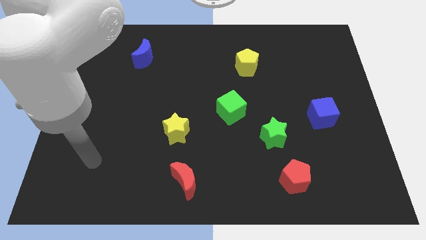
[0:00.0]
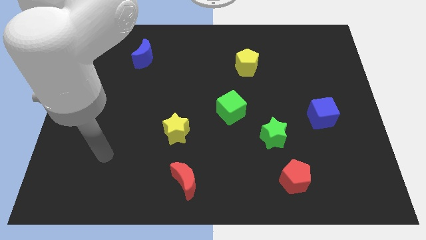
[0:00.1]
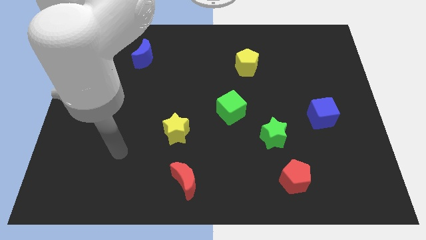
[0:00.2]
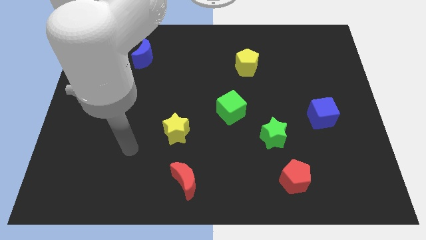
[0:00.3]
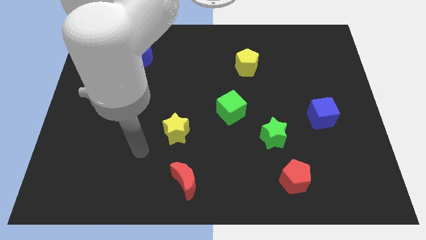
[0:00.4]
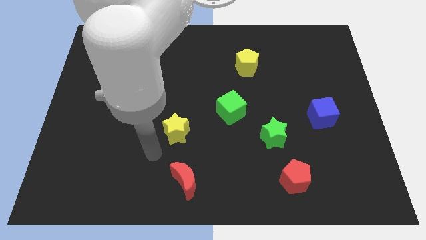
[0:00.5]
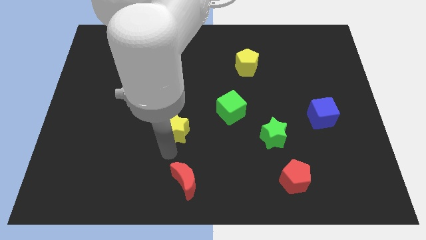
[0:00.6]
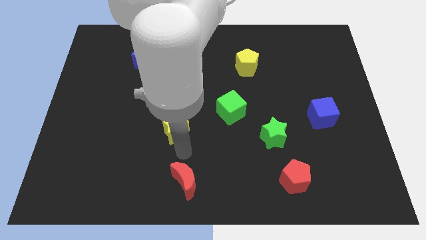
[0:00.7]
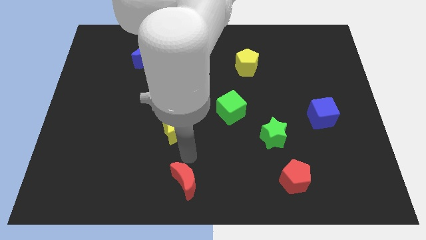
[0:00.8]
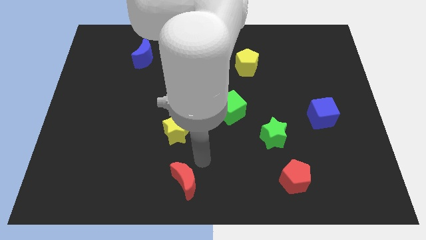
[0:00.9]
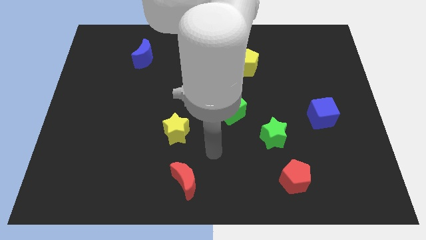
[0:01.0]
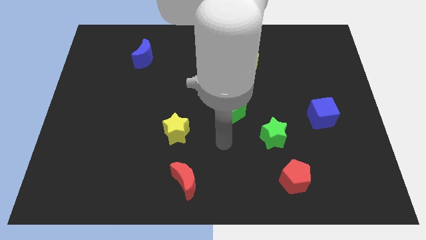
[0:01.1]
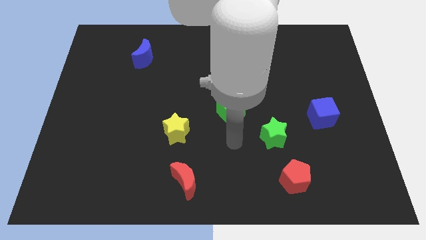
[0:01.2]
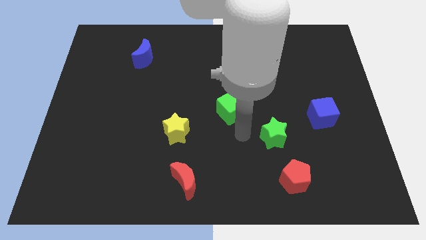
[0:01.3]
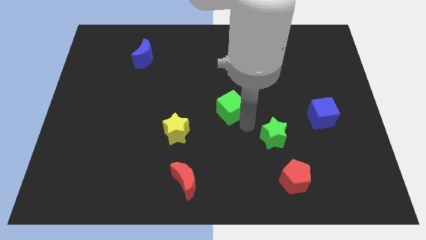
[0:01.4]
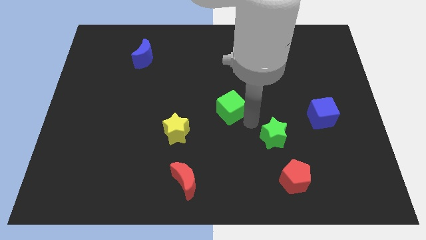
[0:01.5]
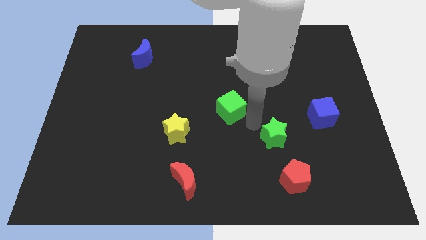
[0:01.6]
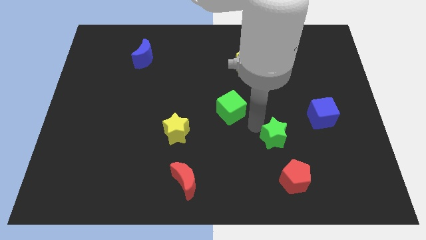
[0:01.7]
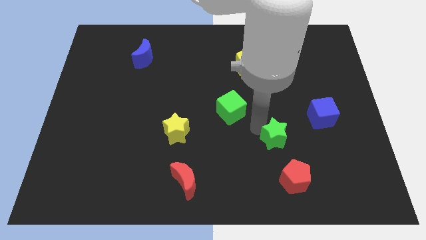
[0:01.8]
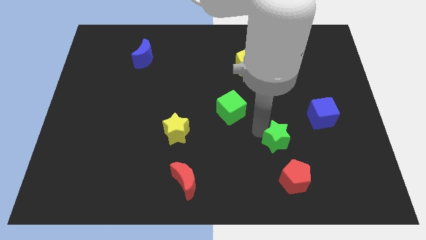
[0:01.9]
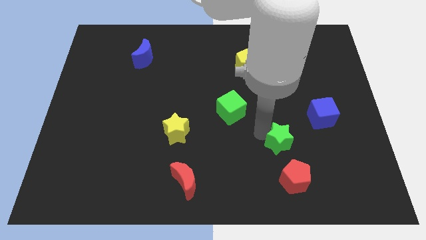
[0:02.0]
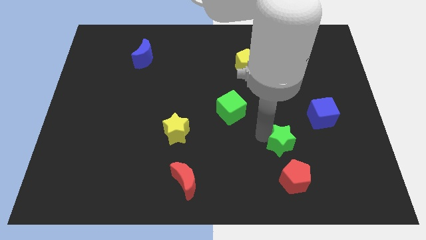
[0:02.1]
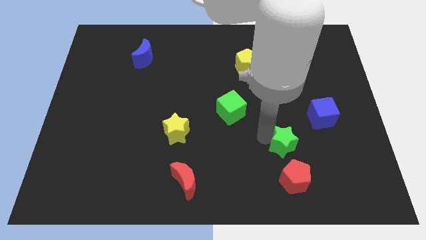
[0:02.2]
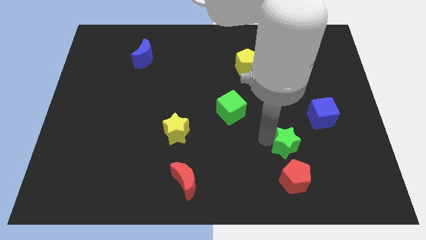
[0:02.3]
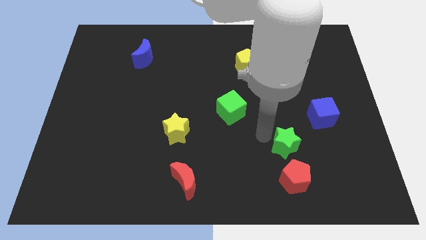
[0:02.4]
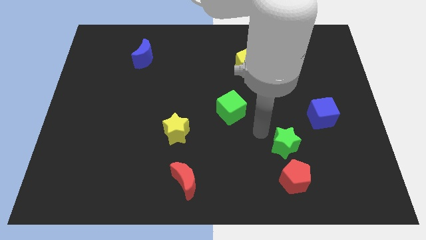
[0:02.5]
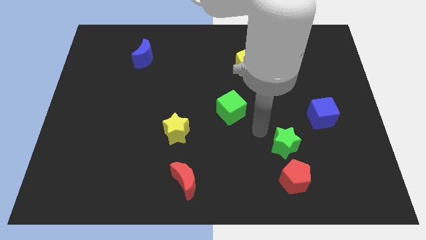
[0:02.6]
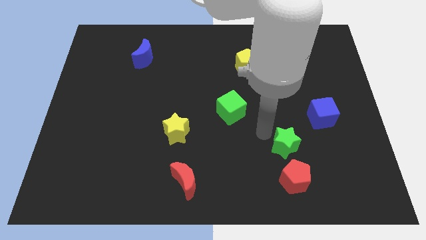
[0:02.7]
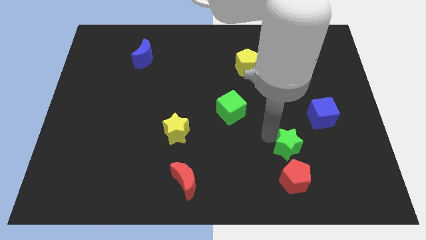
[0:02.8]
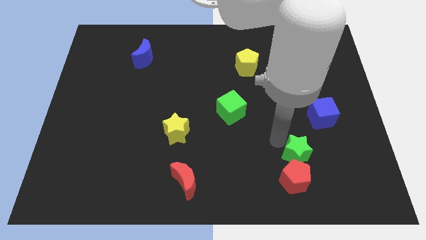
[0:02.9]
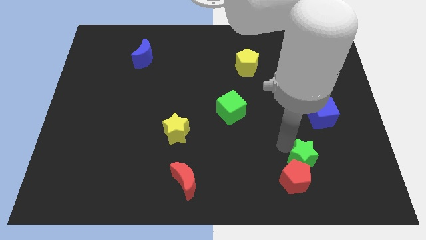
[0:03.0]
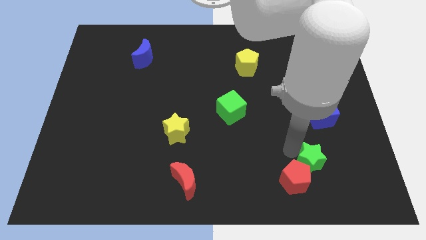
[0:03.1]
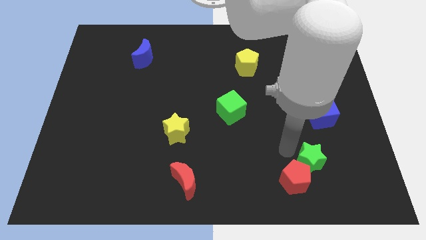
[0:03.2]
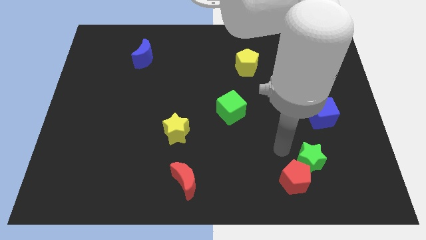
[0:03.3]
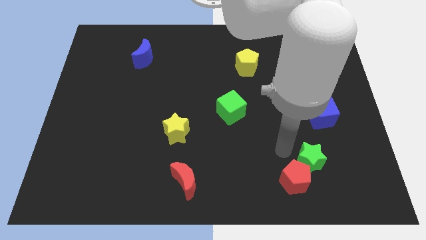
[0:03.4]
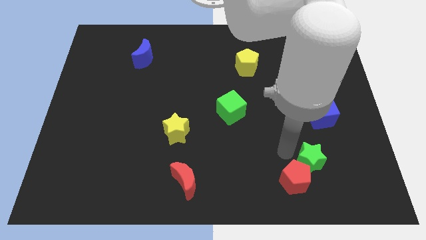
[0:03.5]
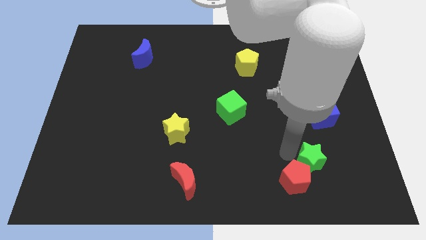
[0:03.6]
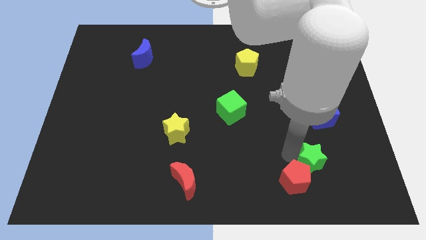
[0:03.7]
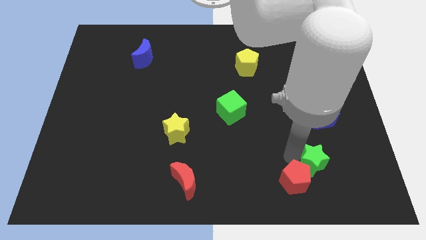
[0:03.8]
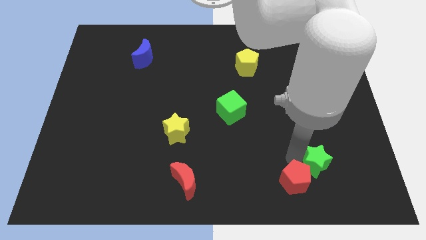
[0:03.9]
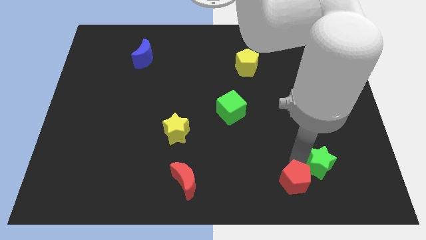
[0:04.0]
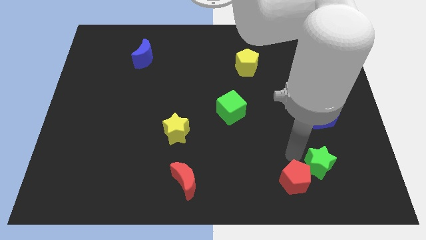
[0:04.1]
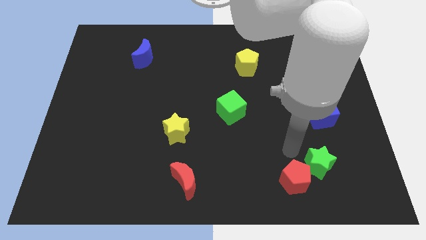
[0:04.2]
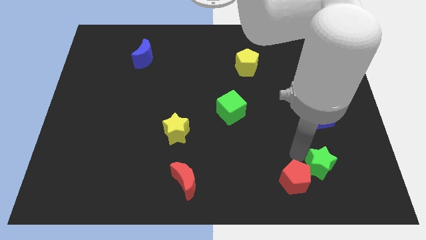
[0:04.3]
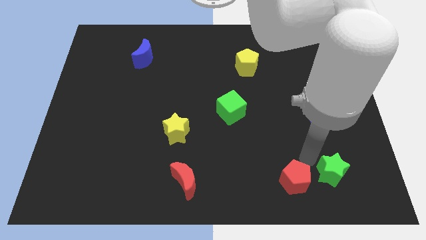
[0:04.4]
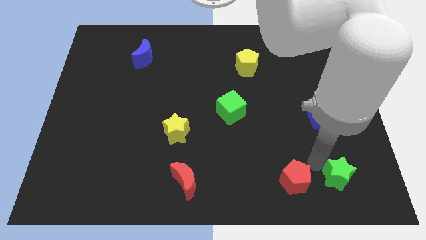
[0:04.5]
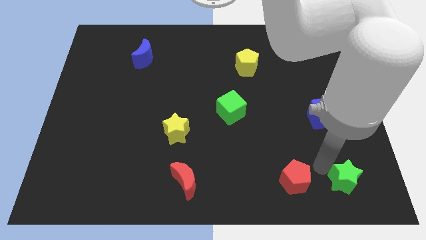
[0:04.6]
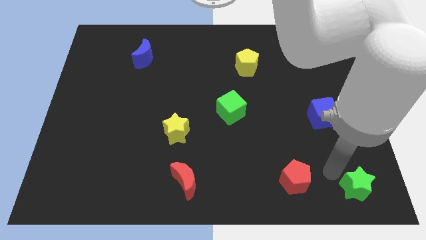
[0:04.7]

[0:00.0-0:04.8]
move the green star to the bottom right of the board

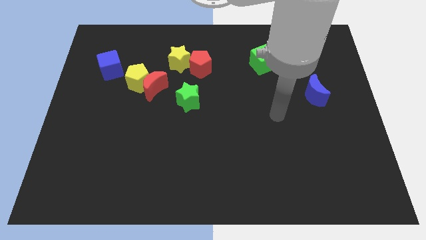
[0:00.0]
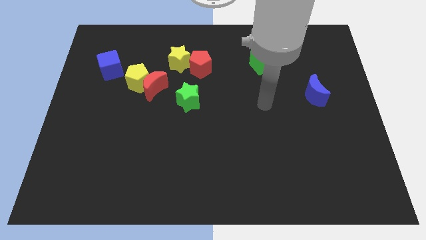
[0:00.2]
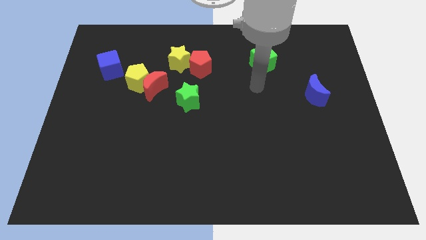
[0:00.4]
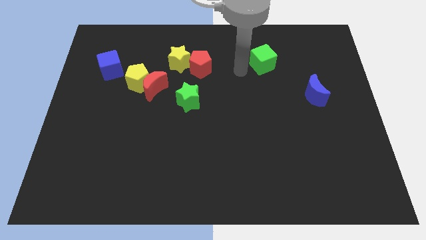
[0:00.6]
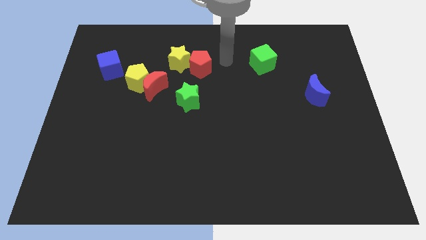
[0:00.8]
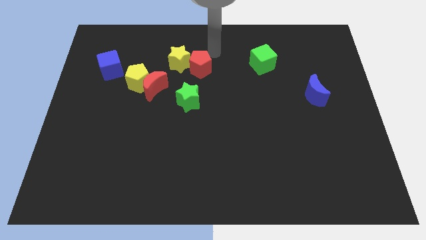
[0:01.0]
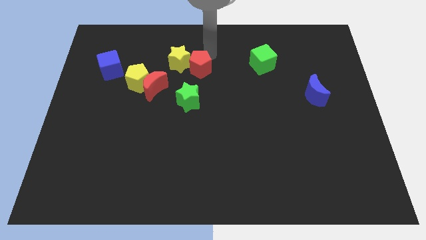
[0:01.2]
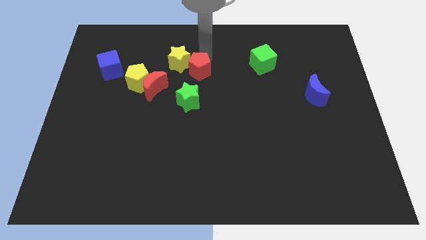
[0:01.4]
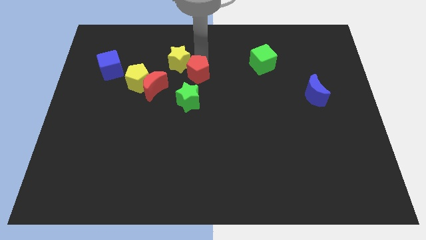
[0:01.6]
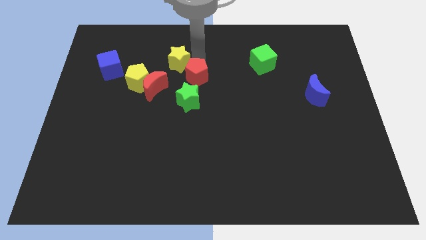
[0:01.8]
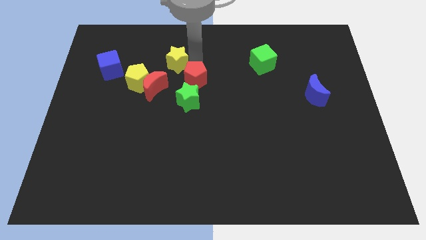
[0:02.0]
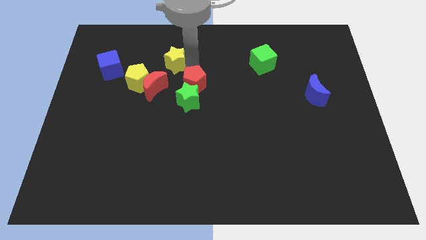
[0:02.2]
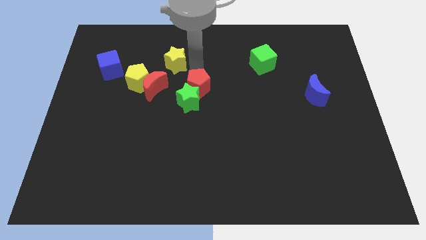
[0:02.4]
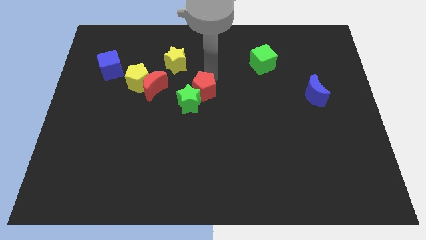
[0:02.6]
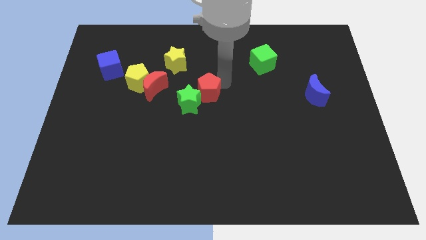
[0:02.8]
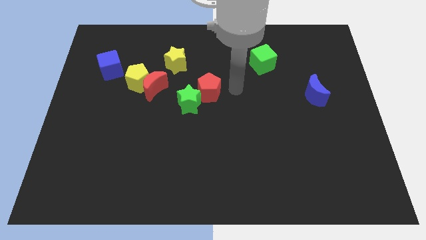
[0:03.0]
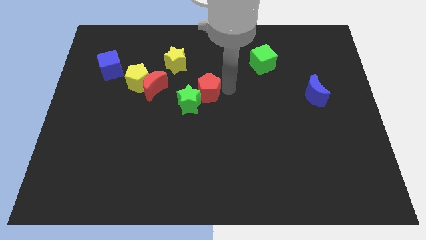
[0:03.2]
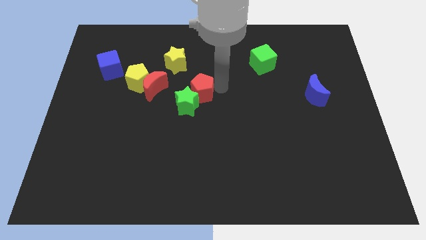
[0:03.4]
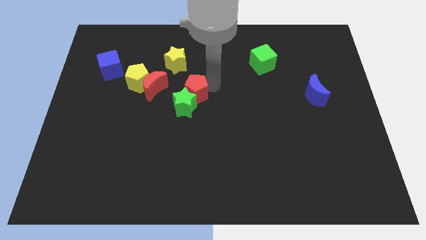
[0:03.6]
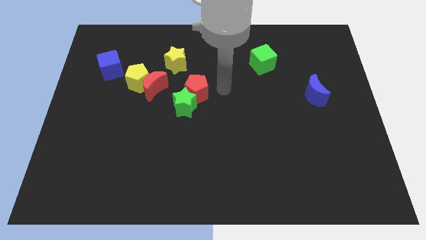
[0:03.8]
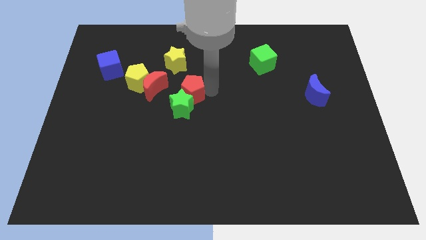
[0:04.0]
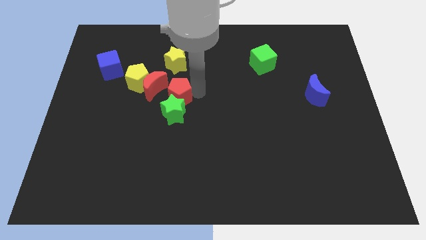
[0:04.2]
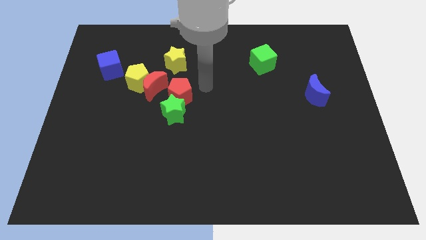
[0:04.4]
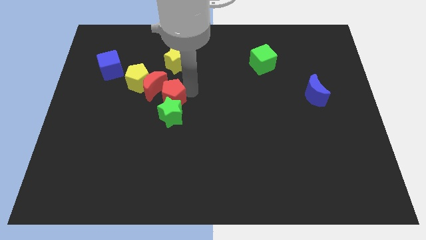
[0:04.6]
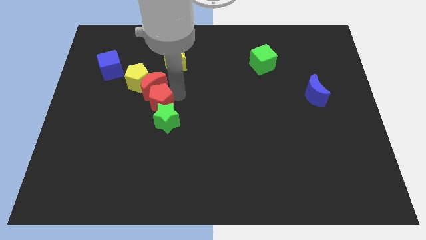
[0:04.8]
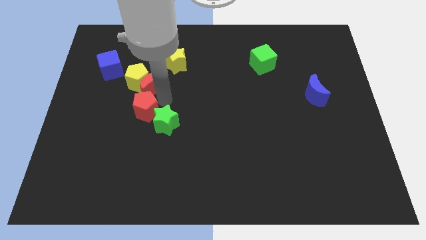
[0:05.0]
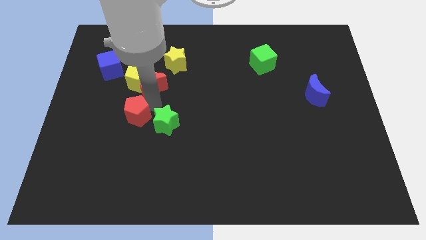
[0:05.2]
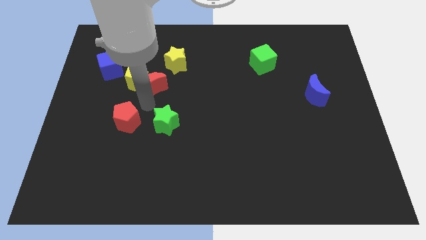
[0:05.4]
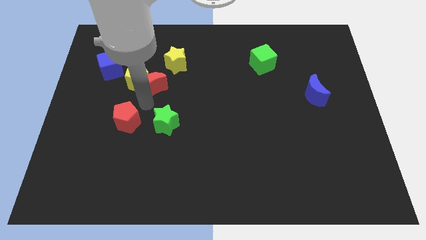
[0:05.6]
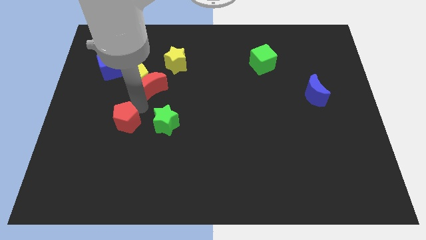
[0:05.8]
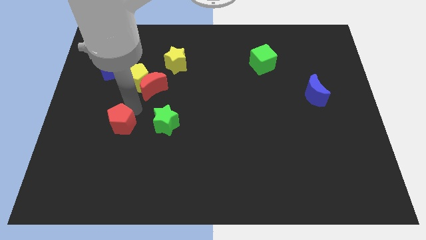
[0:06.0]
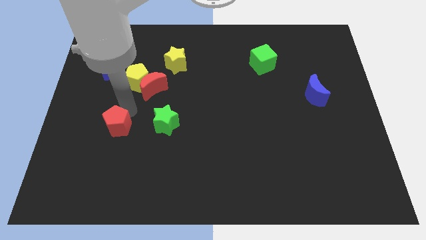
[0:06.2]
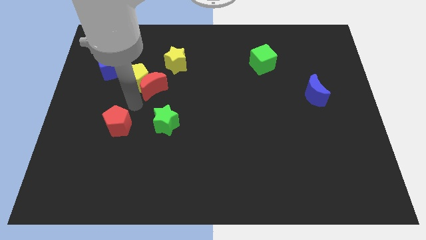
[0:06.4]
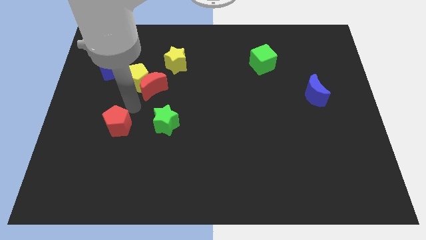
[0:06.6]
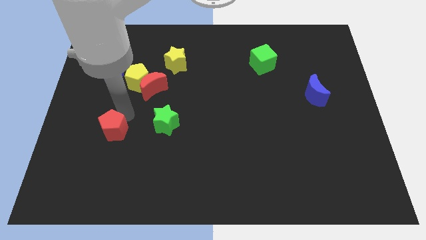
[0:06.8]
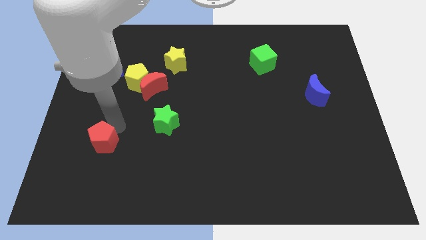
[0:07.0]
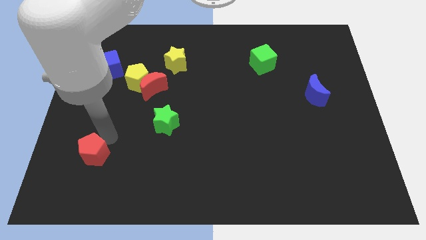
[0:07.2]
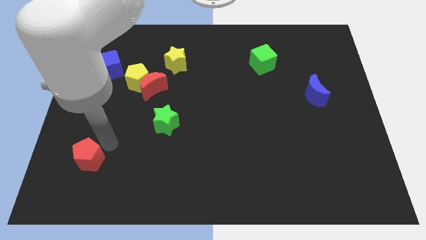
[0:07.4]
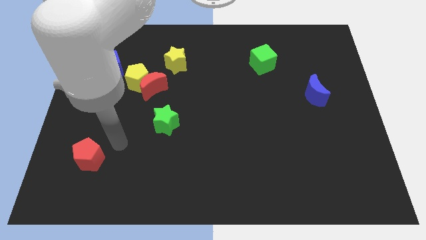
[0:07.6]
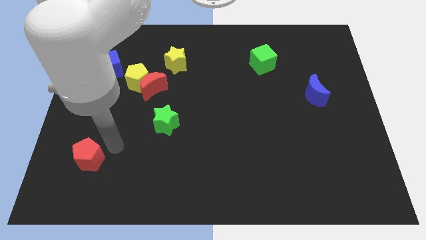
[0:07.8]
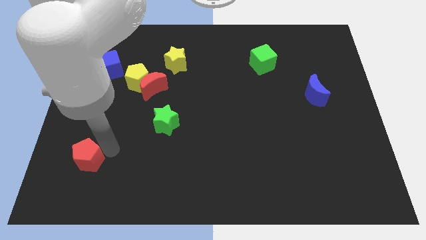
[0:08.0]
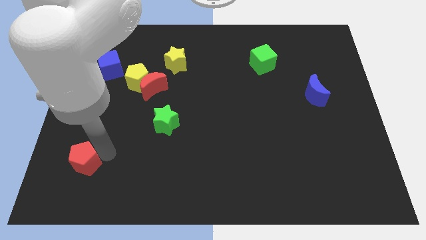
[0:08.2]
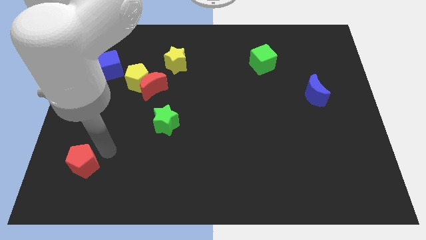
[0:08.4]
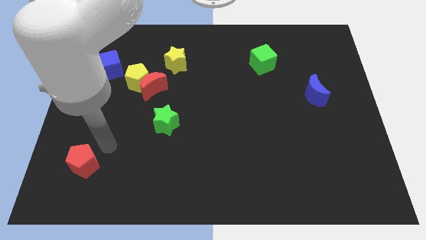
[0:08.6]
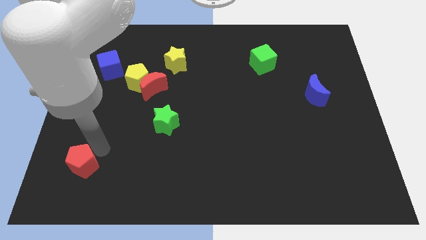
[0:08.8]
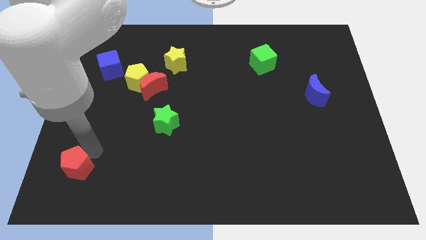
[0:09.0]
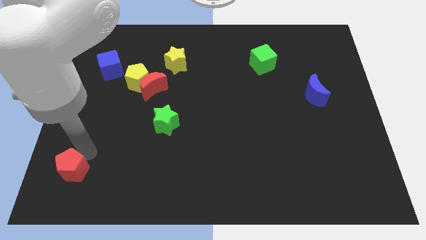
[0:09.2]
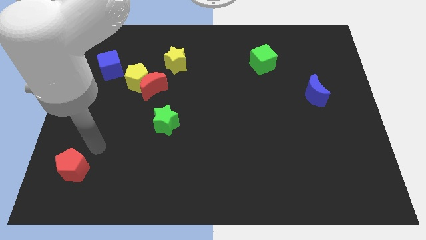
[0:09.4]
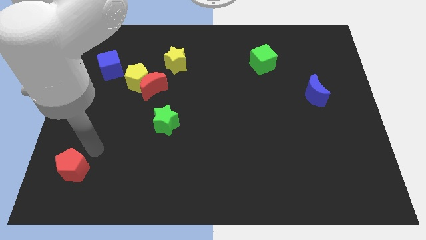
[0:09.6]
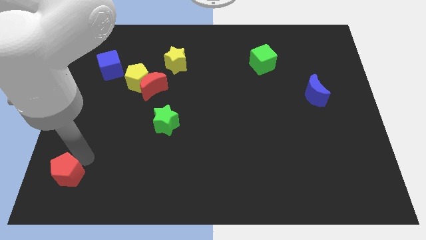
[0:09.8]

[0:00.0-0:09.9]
put the red pentagon to the bottom left
